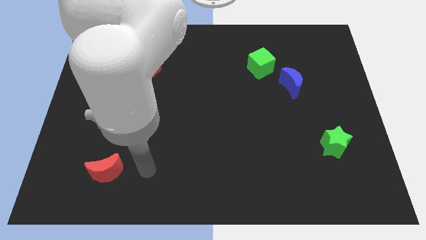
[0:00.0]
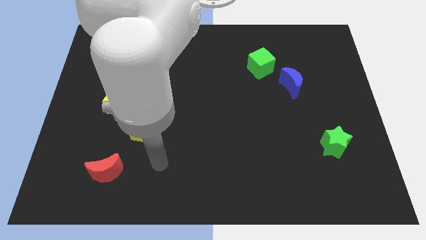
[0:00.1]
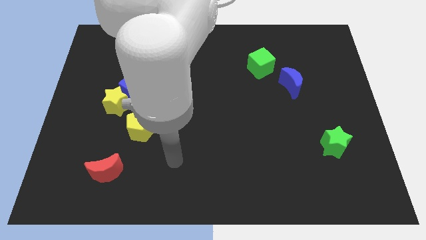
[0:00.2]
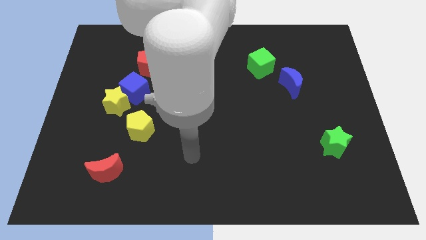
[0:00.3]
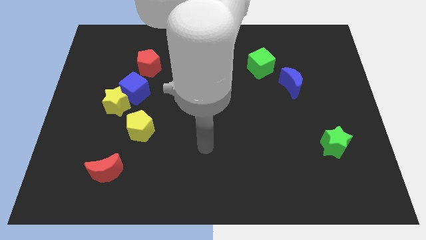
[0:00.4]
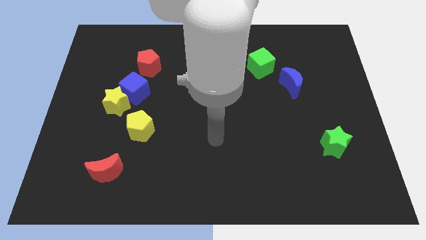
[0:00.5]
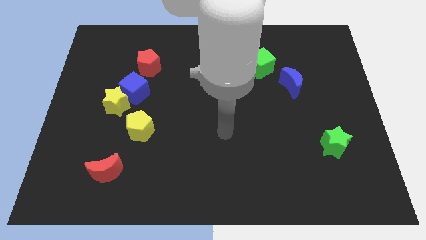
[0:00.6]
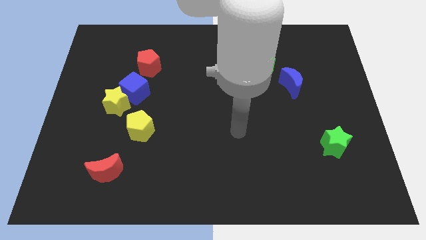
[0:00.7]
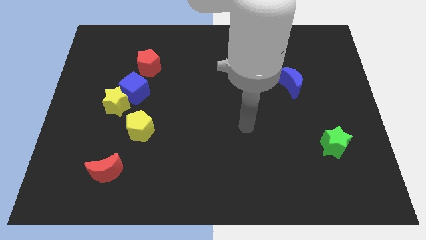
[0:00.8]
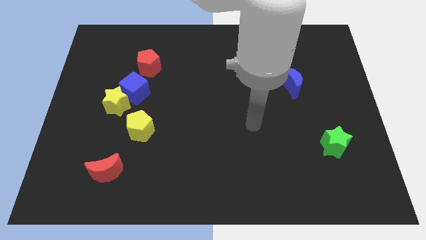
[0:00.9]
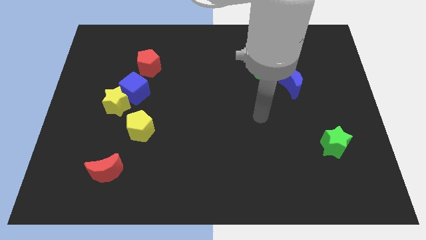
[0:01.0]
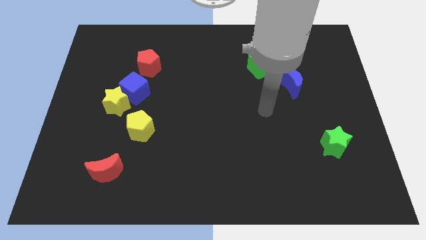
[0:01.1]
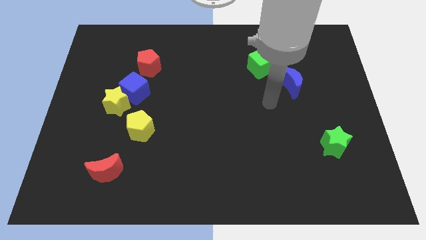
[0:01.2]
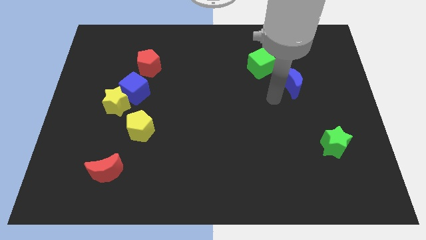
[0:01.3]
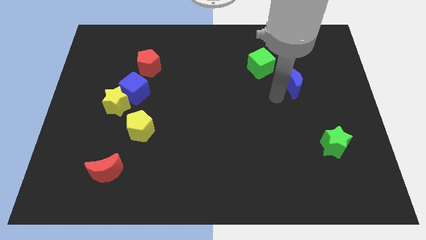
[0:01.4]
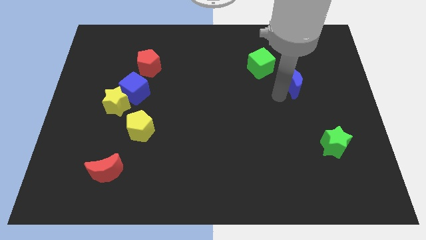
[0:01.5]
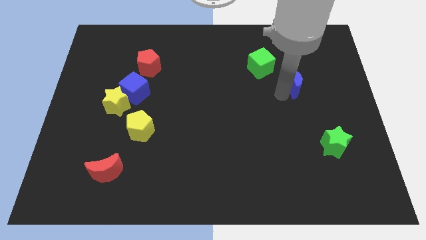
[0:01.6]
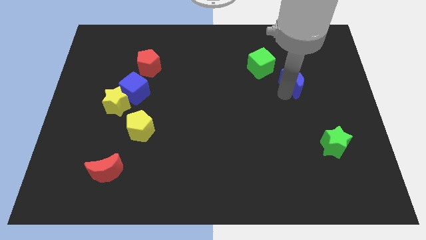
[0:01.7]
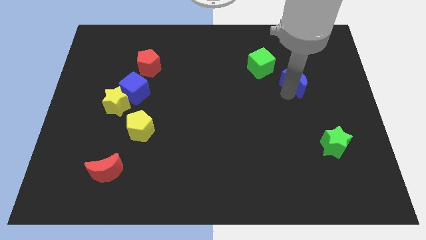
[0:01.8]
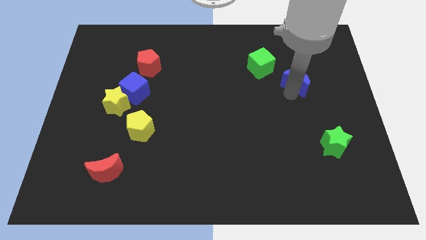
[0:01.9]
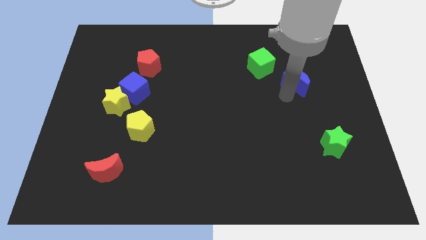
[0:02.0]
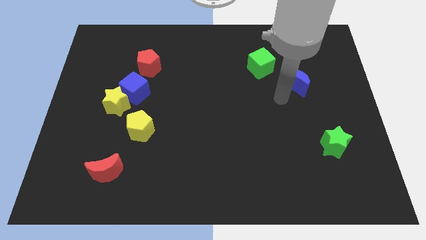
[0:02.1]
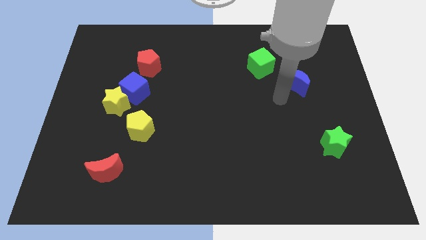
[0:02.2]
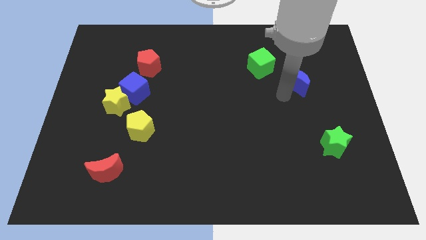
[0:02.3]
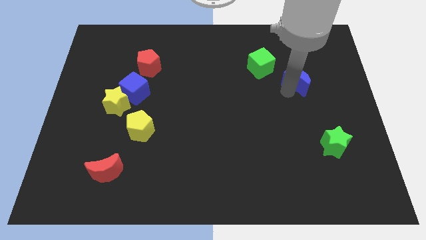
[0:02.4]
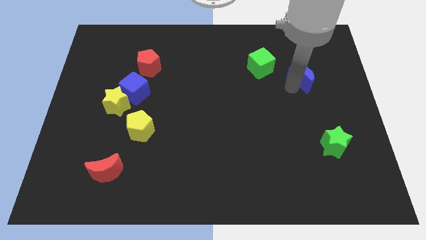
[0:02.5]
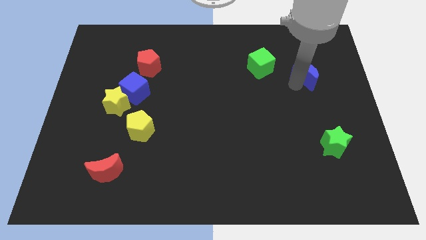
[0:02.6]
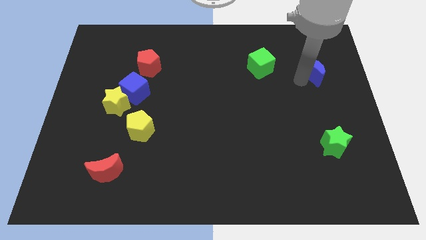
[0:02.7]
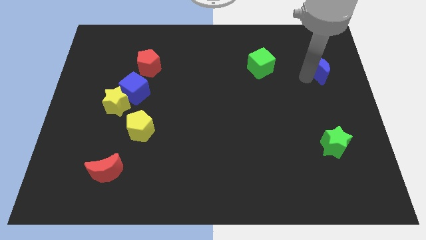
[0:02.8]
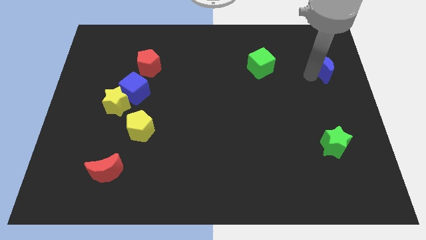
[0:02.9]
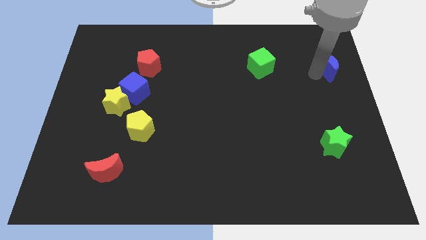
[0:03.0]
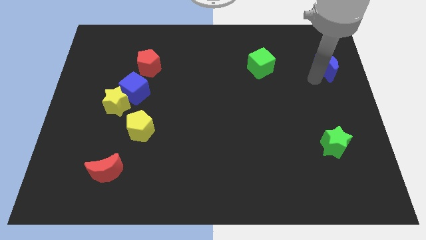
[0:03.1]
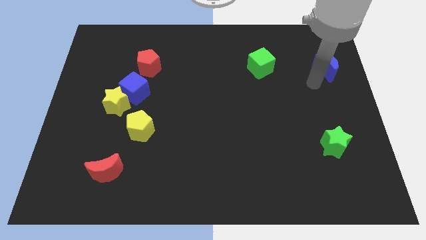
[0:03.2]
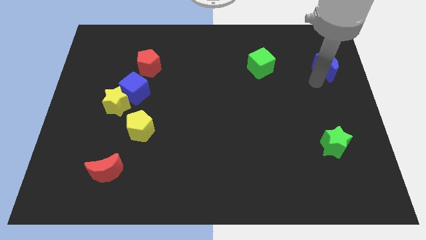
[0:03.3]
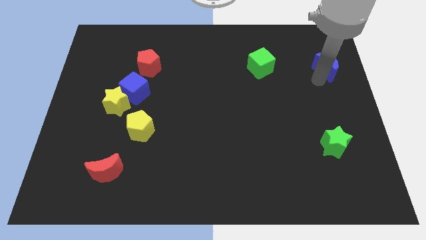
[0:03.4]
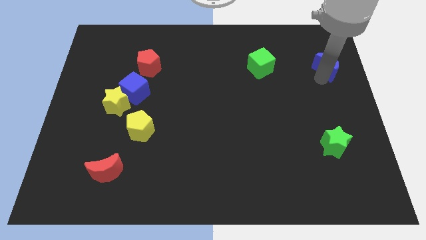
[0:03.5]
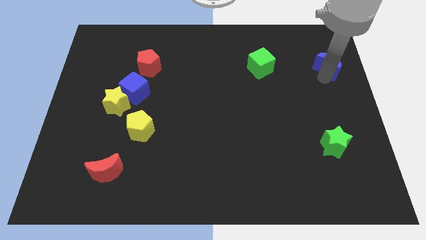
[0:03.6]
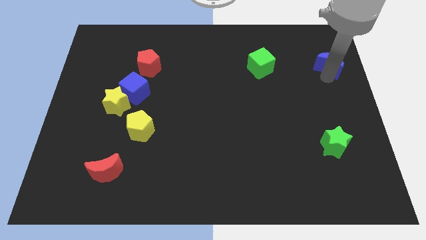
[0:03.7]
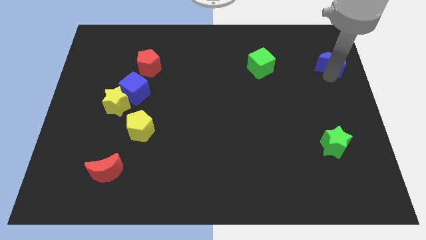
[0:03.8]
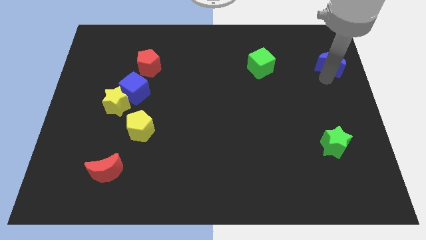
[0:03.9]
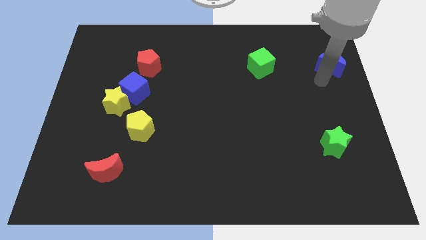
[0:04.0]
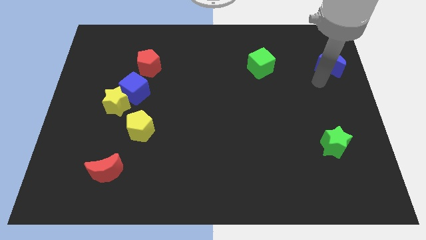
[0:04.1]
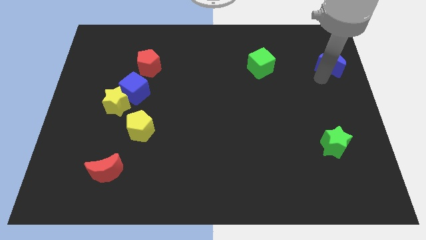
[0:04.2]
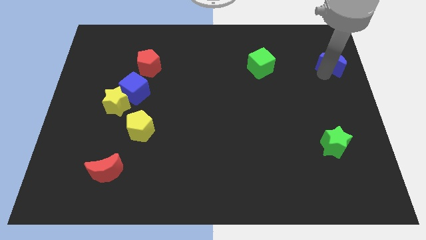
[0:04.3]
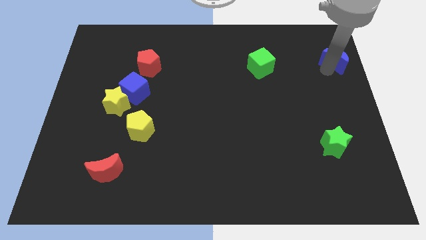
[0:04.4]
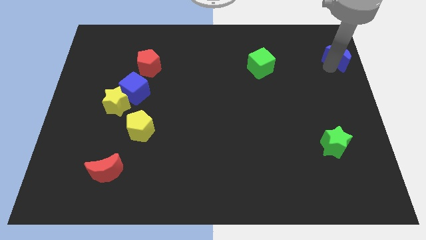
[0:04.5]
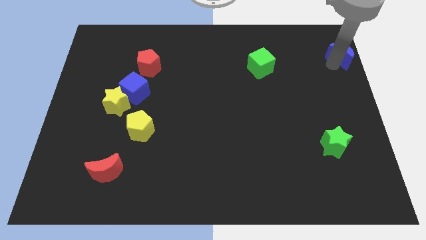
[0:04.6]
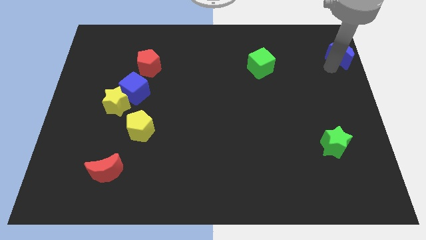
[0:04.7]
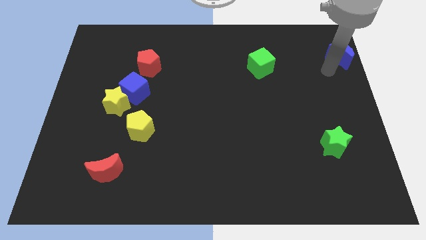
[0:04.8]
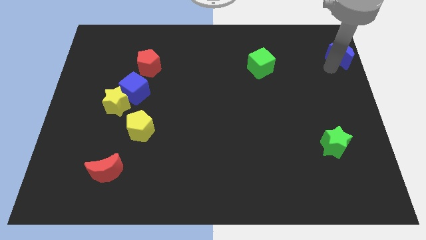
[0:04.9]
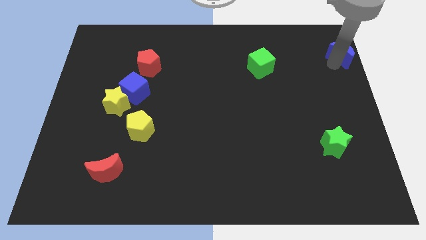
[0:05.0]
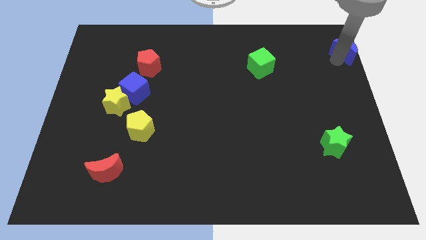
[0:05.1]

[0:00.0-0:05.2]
push the blue moon to the top right of the board

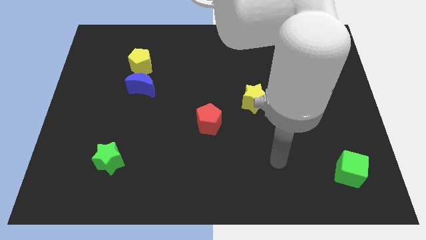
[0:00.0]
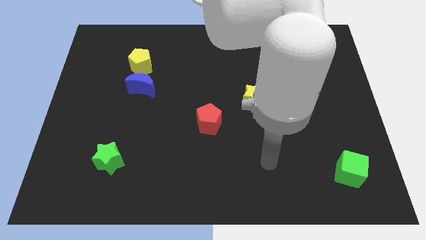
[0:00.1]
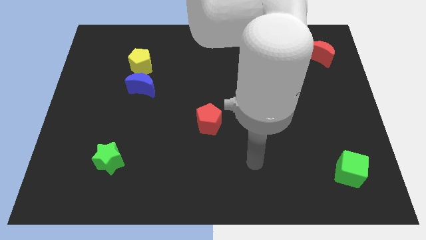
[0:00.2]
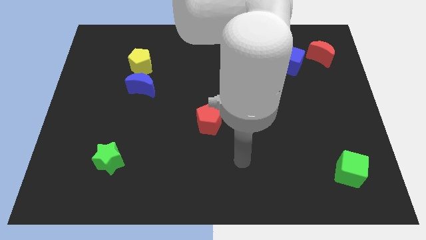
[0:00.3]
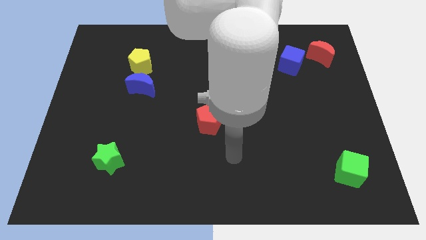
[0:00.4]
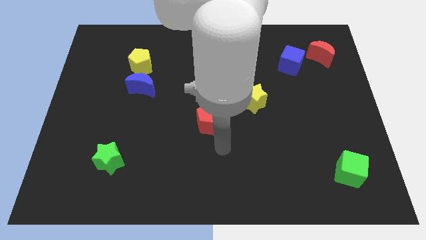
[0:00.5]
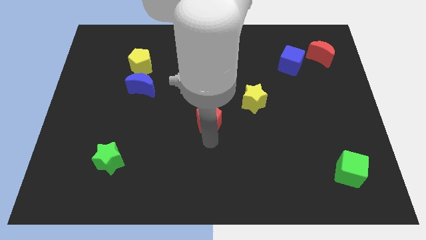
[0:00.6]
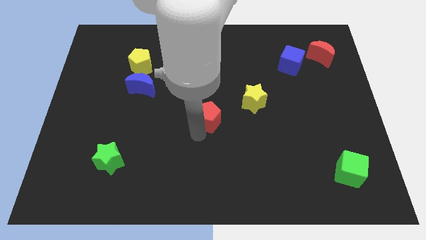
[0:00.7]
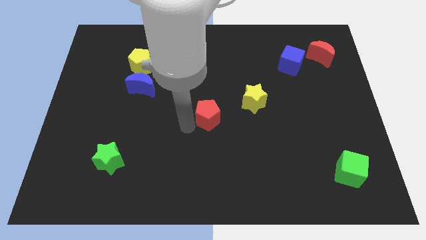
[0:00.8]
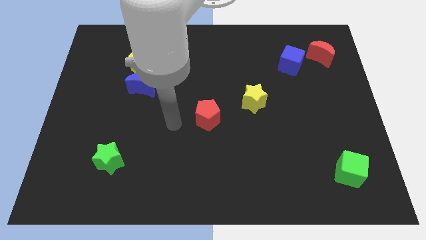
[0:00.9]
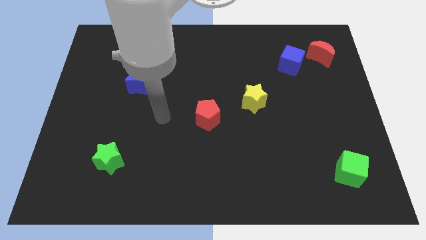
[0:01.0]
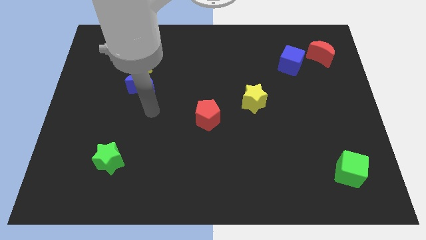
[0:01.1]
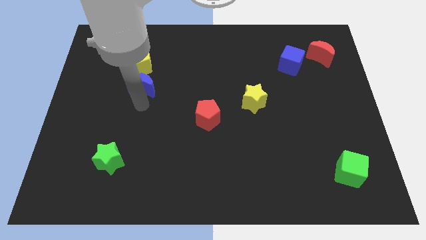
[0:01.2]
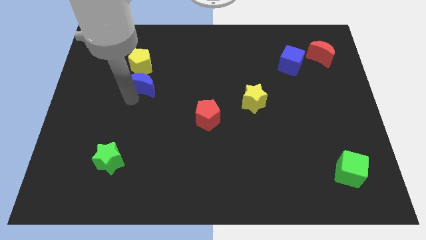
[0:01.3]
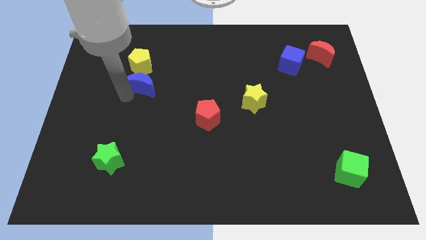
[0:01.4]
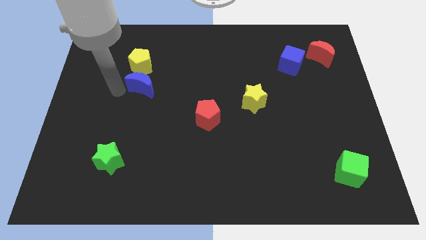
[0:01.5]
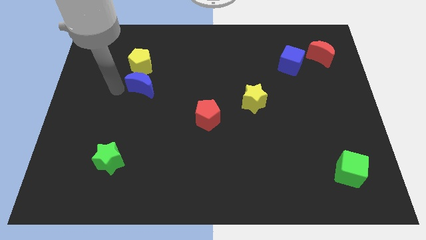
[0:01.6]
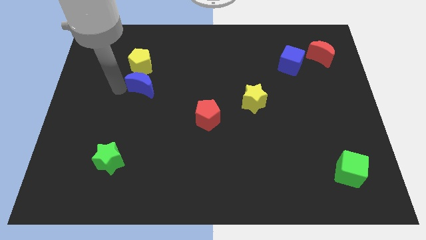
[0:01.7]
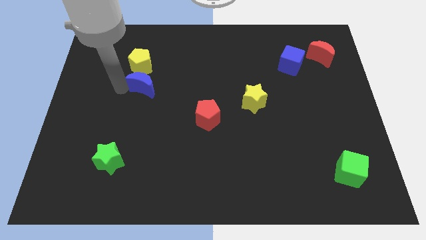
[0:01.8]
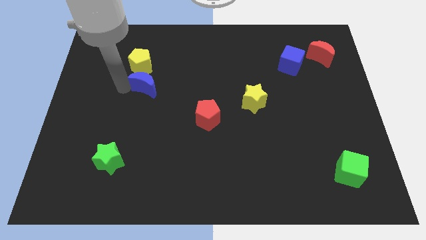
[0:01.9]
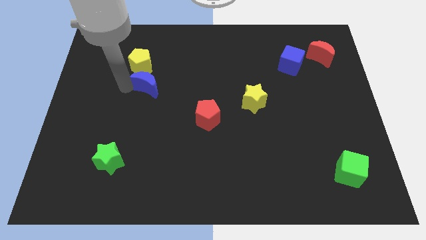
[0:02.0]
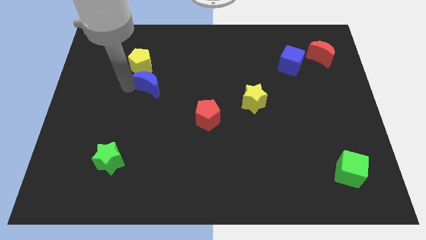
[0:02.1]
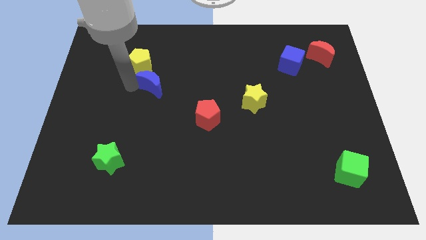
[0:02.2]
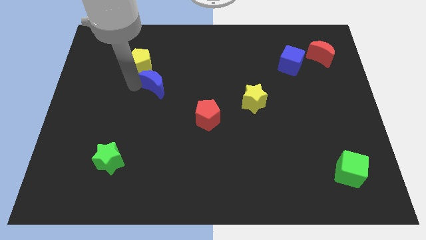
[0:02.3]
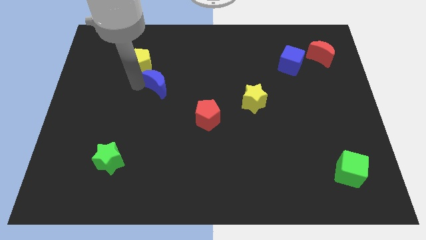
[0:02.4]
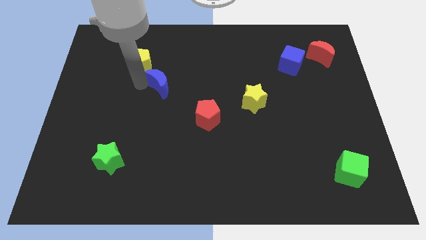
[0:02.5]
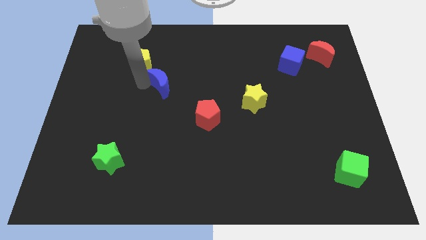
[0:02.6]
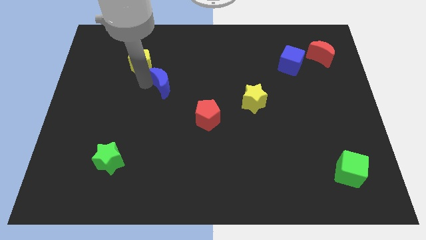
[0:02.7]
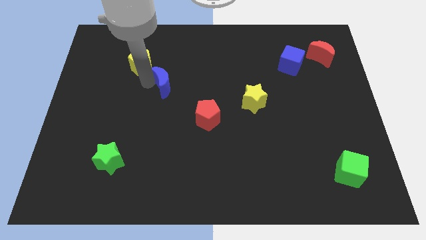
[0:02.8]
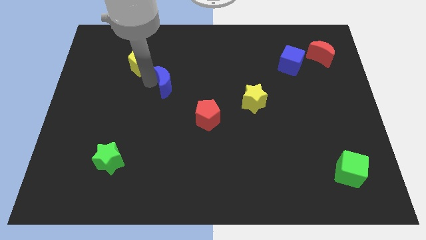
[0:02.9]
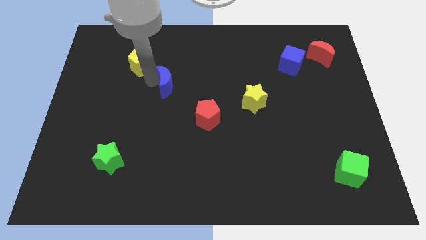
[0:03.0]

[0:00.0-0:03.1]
put the blue moon to the middle
